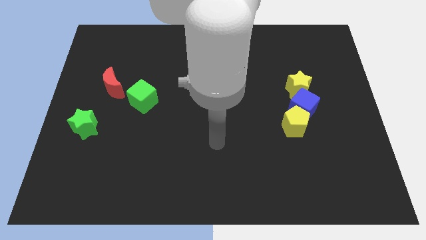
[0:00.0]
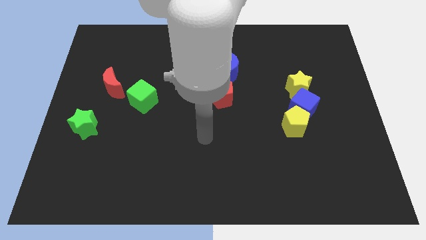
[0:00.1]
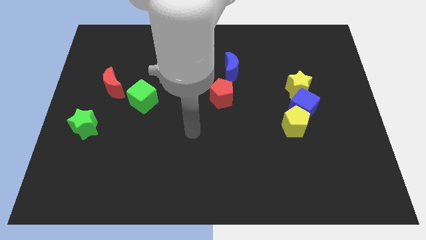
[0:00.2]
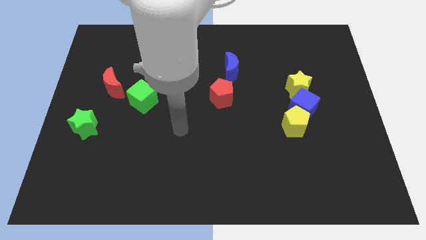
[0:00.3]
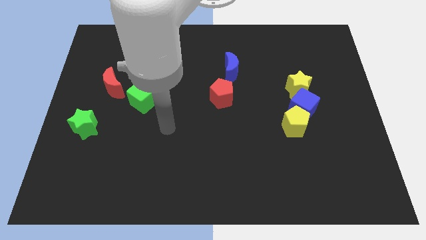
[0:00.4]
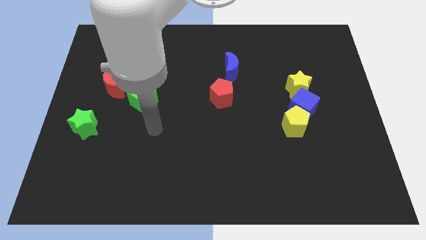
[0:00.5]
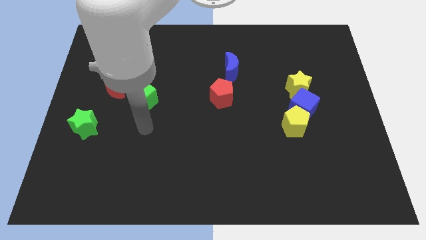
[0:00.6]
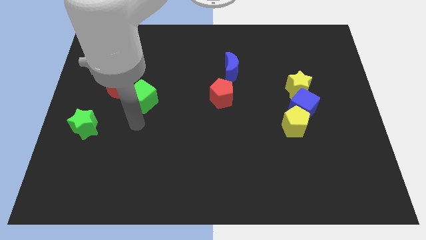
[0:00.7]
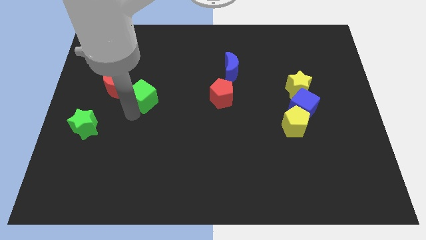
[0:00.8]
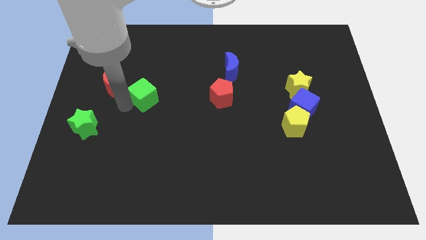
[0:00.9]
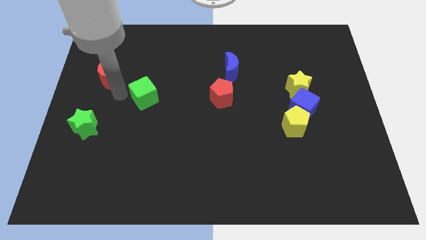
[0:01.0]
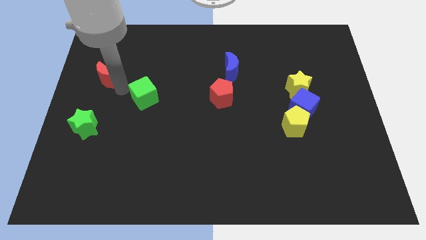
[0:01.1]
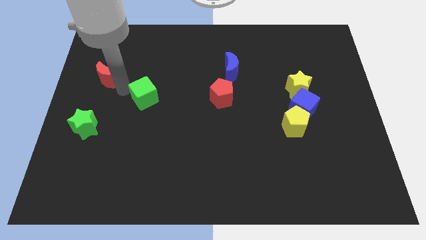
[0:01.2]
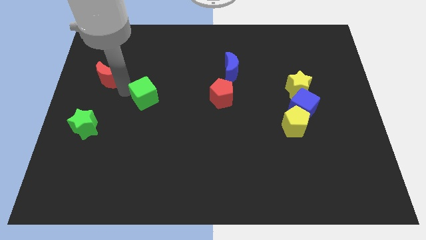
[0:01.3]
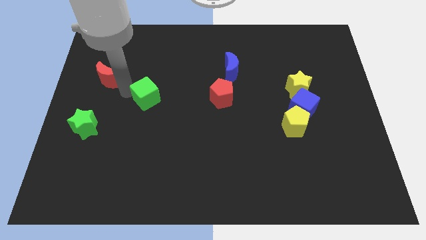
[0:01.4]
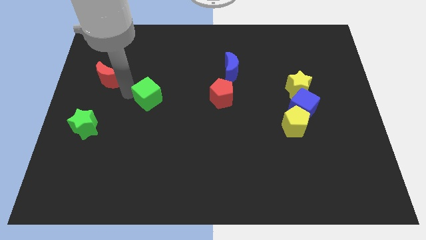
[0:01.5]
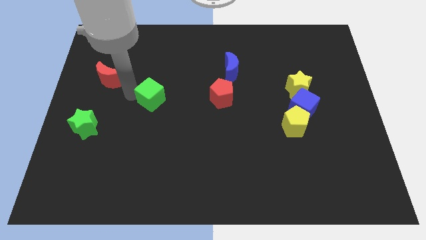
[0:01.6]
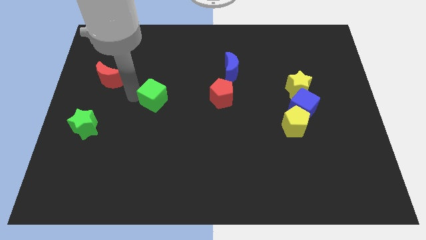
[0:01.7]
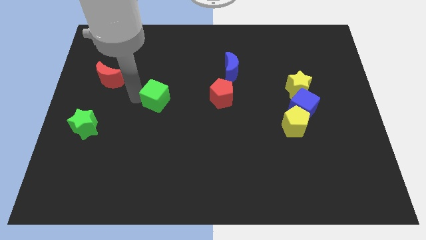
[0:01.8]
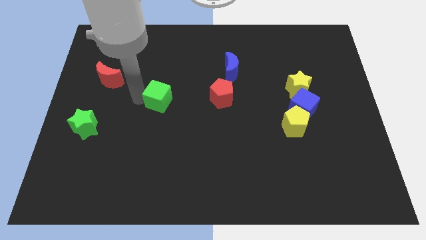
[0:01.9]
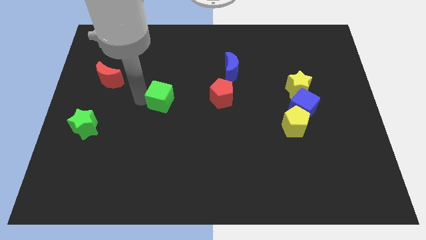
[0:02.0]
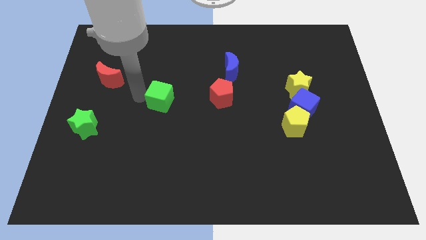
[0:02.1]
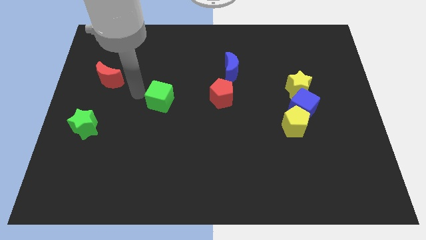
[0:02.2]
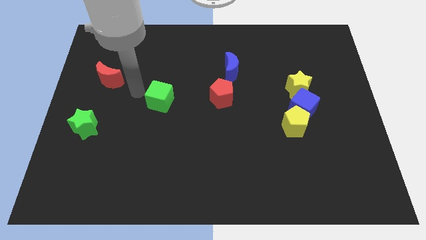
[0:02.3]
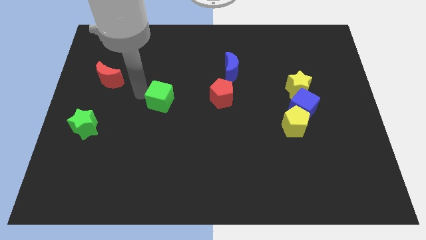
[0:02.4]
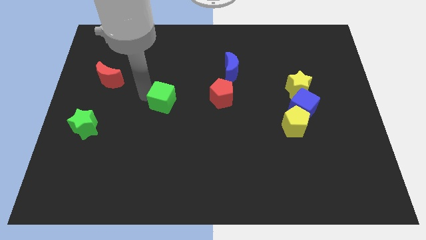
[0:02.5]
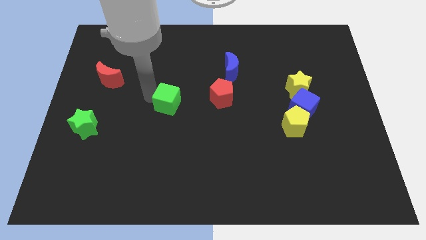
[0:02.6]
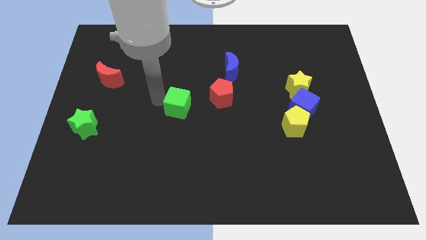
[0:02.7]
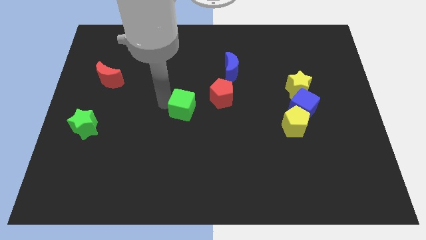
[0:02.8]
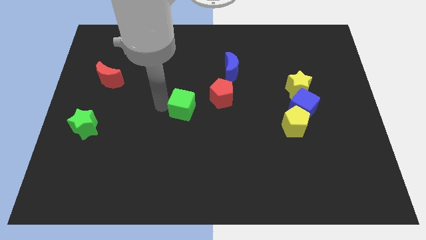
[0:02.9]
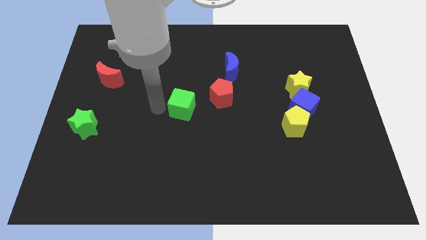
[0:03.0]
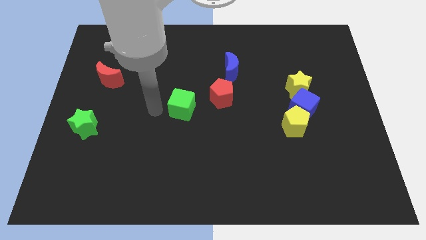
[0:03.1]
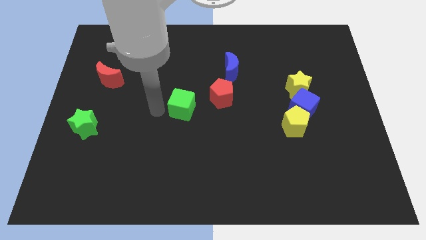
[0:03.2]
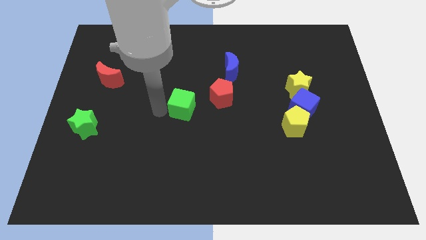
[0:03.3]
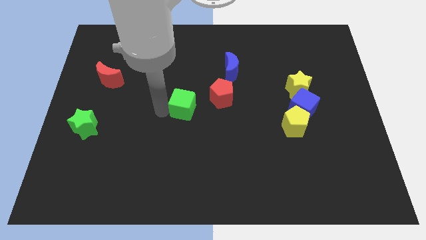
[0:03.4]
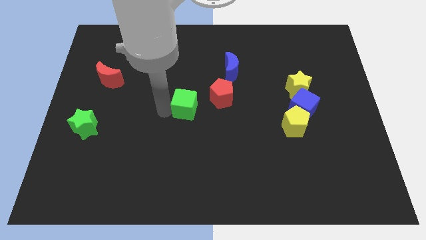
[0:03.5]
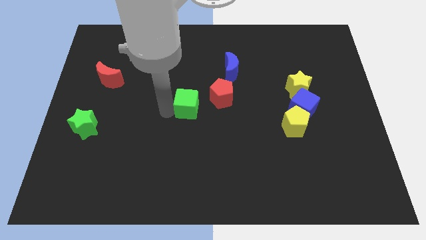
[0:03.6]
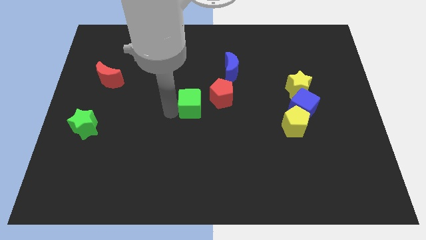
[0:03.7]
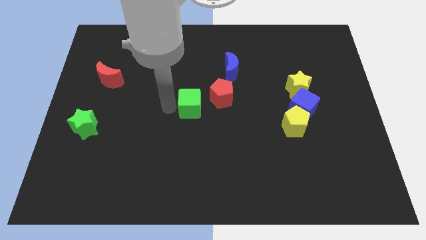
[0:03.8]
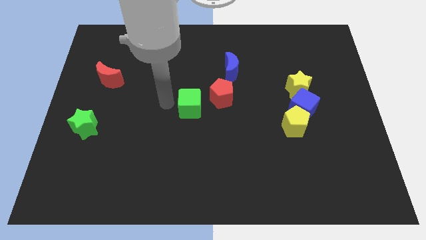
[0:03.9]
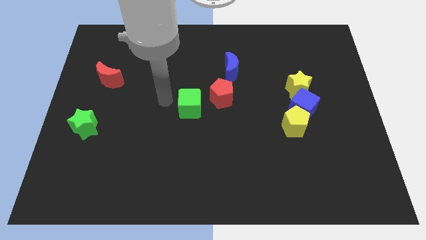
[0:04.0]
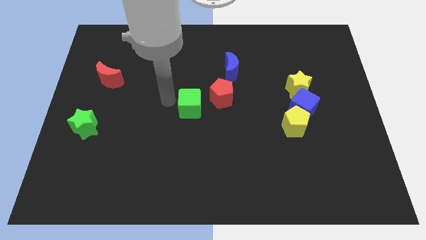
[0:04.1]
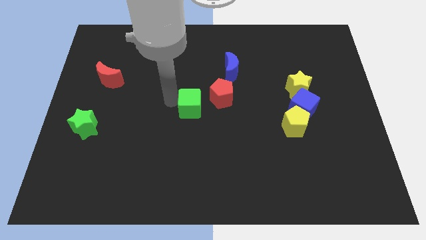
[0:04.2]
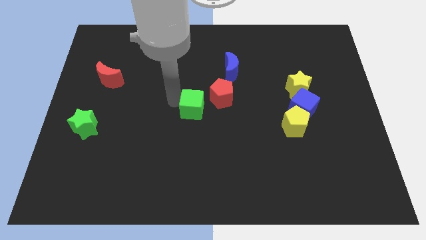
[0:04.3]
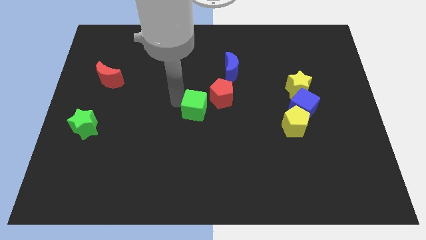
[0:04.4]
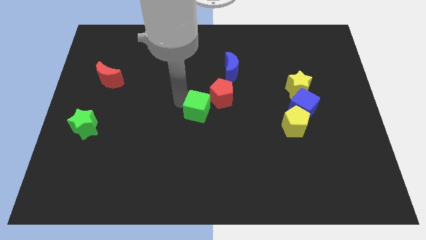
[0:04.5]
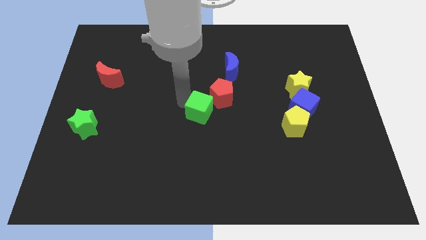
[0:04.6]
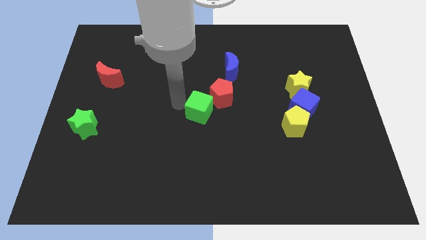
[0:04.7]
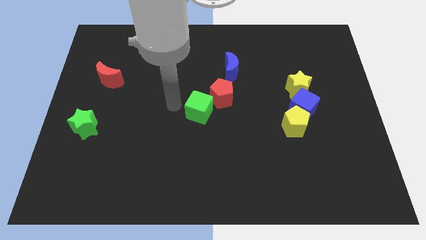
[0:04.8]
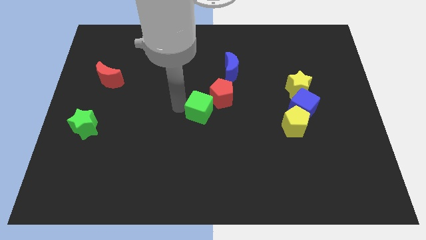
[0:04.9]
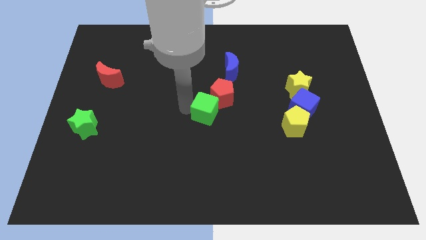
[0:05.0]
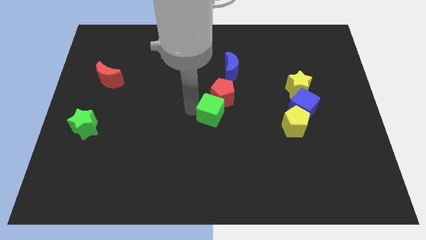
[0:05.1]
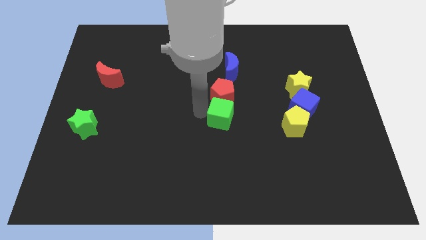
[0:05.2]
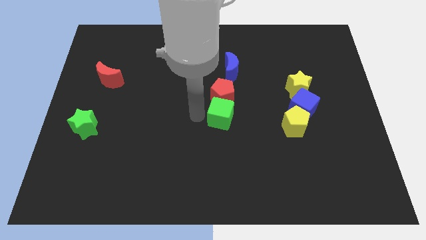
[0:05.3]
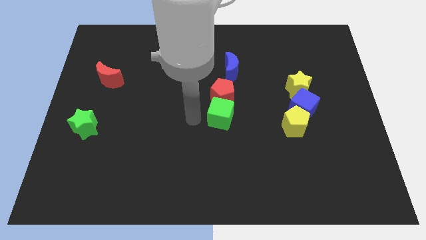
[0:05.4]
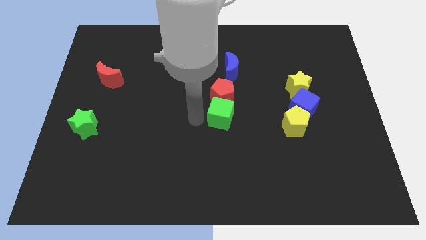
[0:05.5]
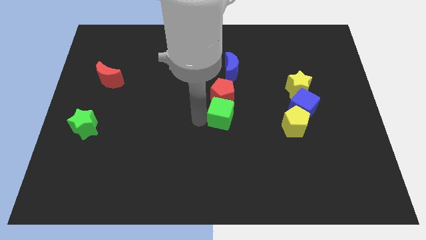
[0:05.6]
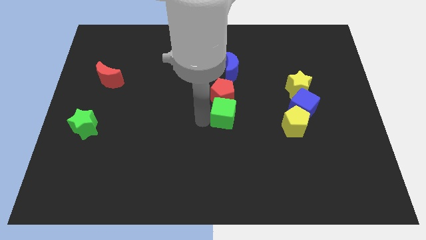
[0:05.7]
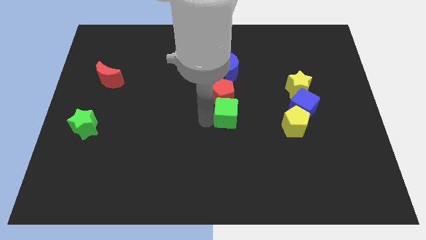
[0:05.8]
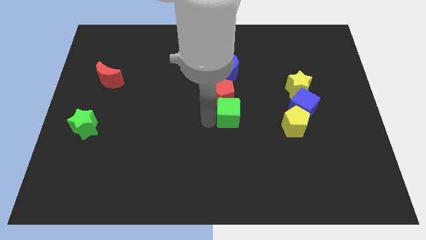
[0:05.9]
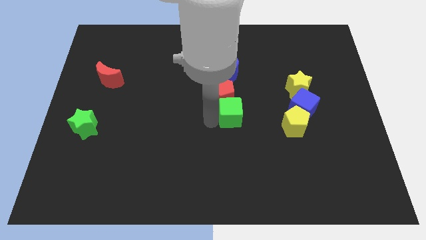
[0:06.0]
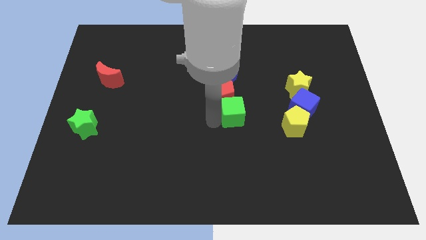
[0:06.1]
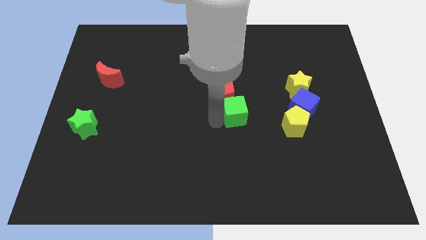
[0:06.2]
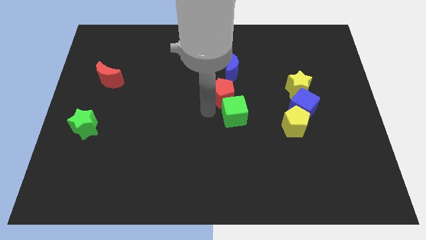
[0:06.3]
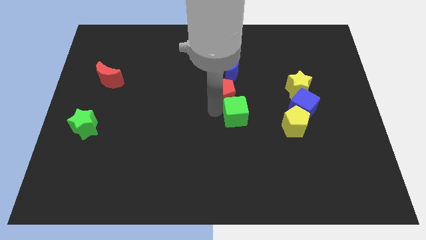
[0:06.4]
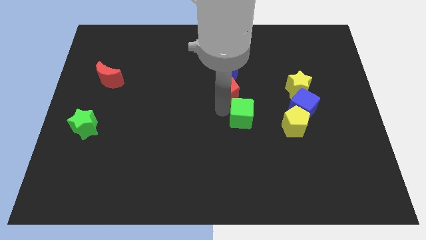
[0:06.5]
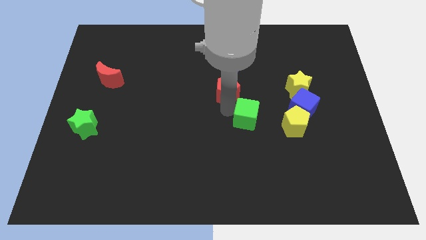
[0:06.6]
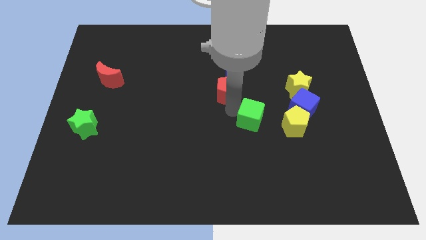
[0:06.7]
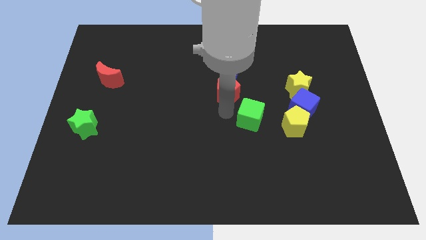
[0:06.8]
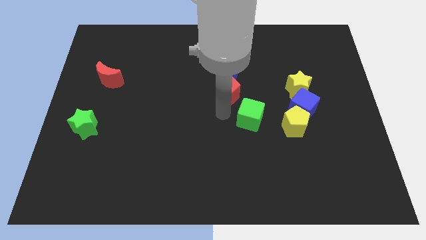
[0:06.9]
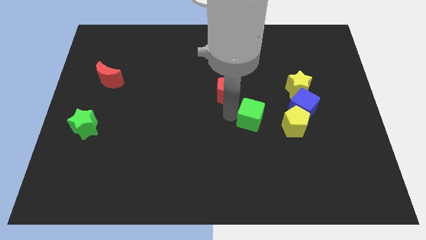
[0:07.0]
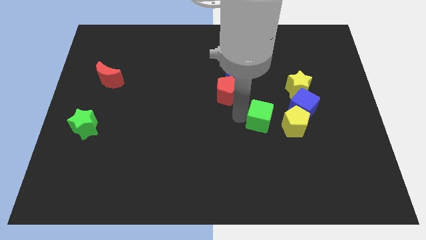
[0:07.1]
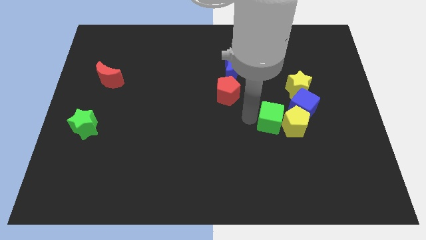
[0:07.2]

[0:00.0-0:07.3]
put the green cube next to the yellow pentagon

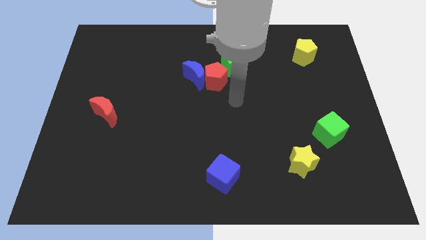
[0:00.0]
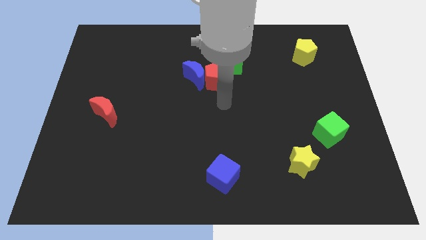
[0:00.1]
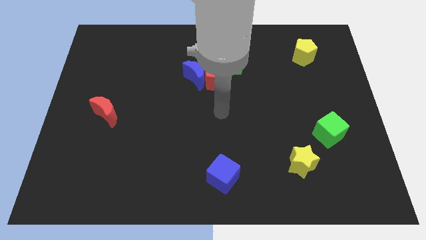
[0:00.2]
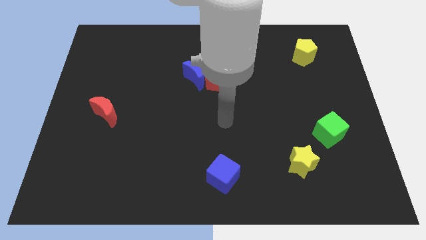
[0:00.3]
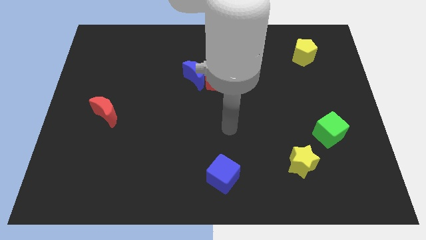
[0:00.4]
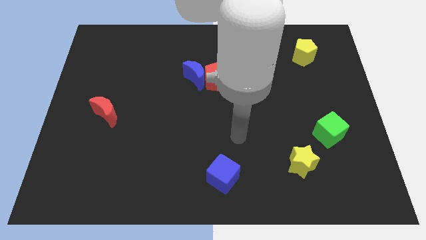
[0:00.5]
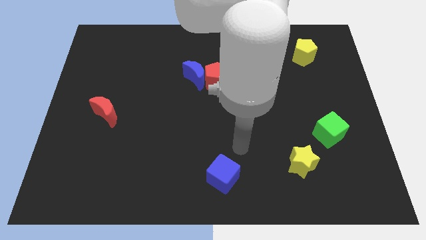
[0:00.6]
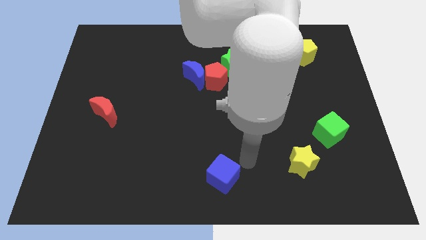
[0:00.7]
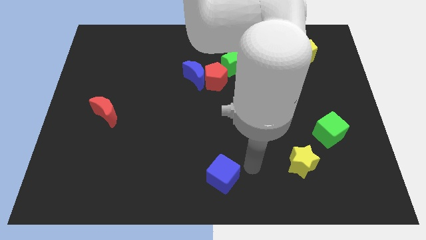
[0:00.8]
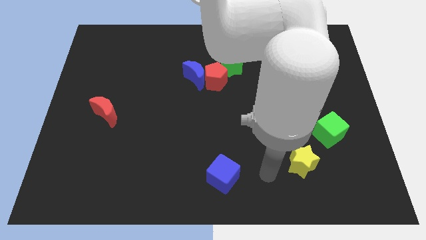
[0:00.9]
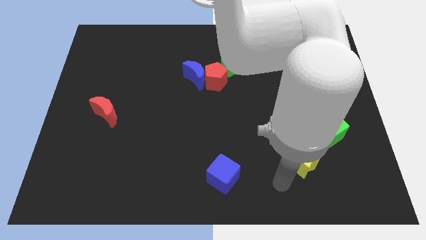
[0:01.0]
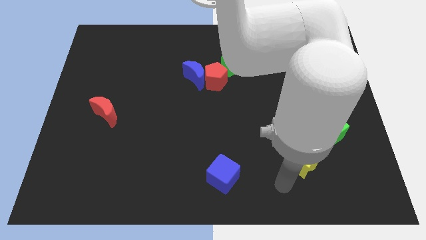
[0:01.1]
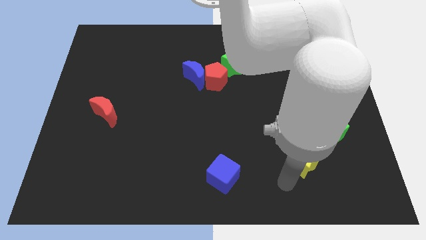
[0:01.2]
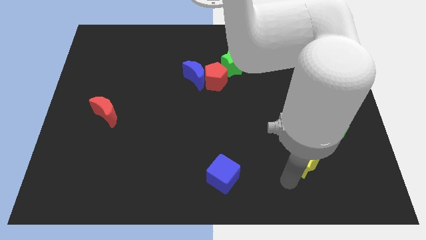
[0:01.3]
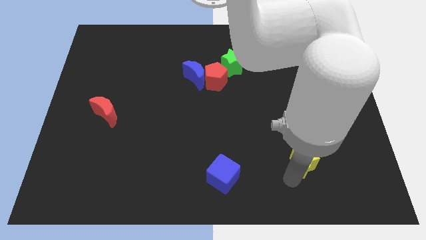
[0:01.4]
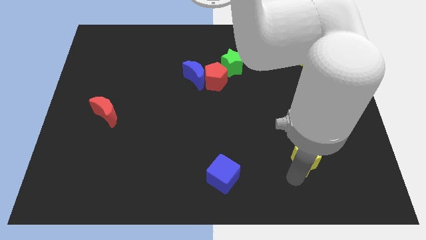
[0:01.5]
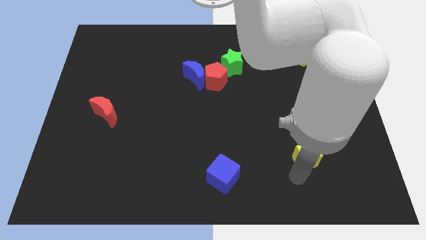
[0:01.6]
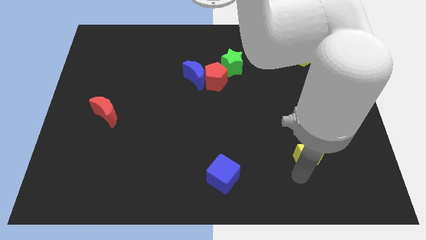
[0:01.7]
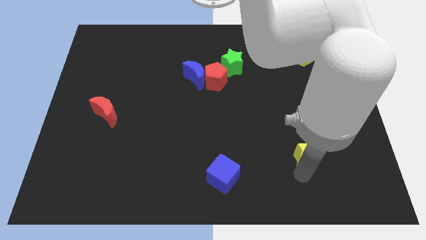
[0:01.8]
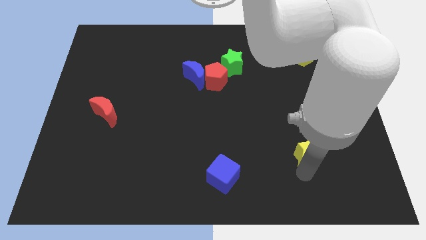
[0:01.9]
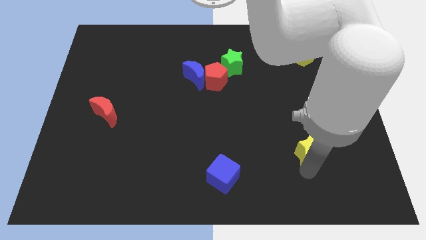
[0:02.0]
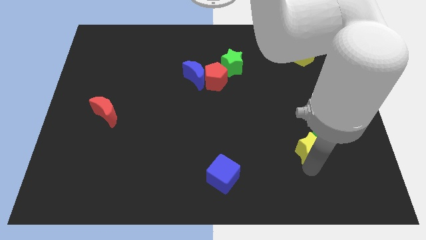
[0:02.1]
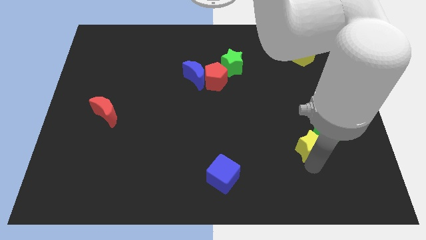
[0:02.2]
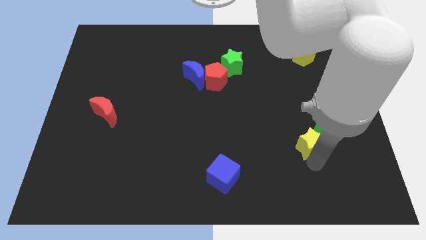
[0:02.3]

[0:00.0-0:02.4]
move the yellow star next to the green cube
